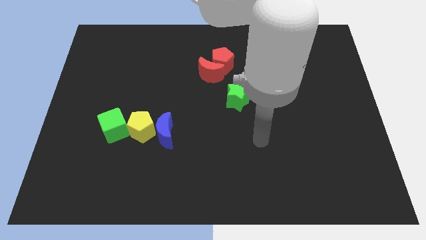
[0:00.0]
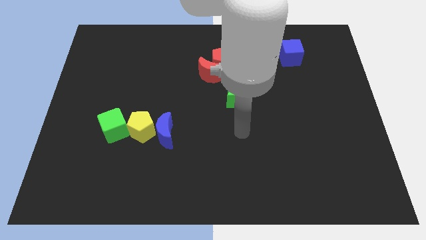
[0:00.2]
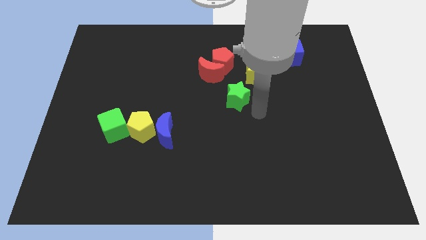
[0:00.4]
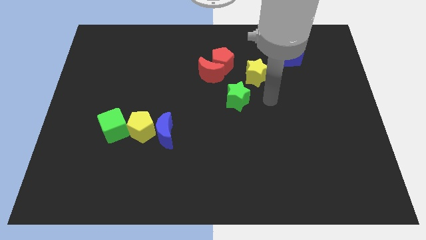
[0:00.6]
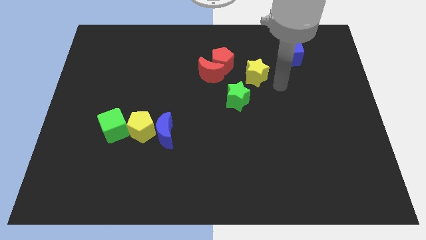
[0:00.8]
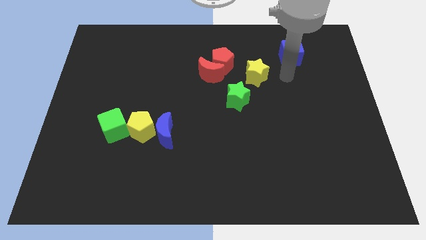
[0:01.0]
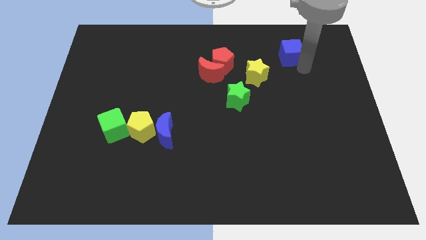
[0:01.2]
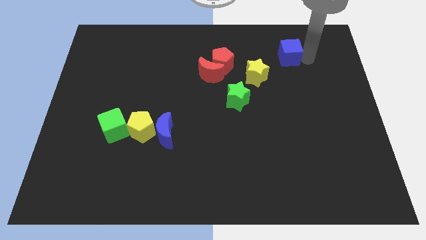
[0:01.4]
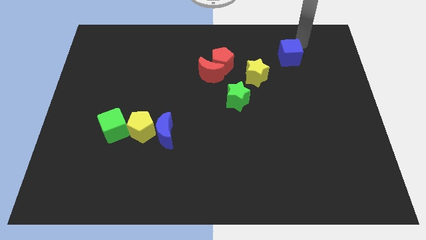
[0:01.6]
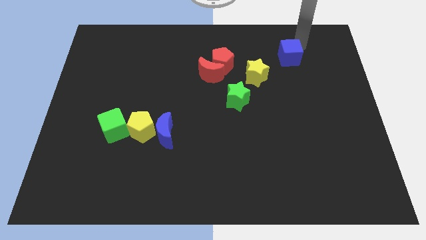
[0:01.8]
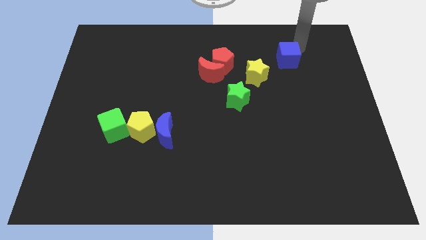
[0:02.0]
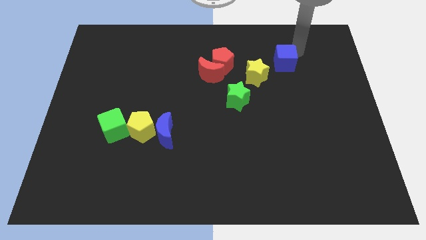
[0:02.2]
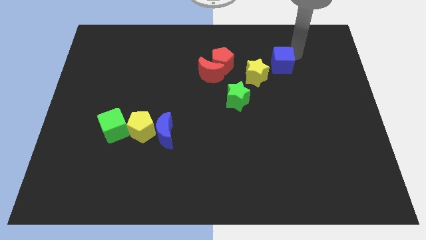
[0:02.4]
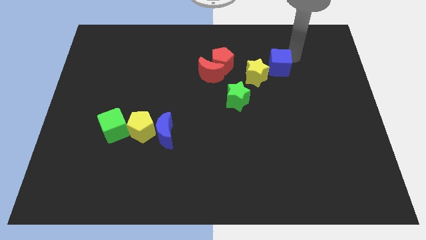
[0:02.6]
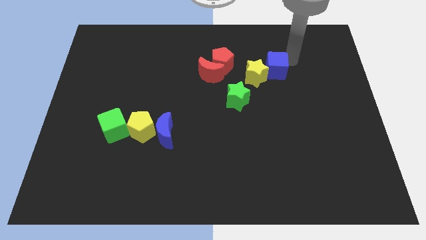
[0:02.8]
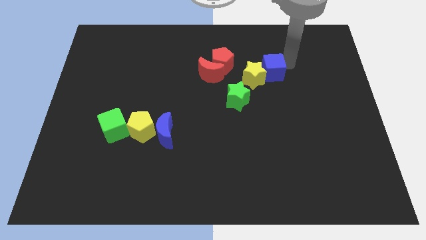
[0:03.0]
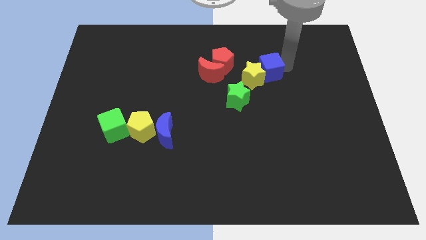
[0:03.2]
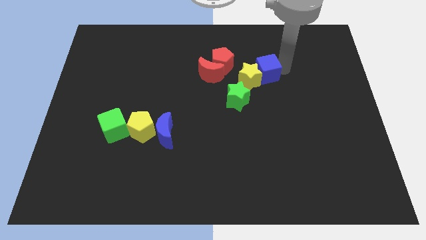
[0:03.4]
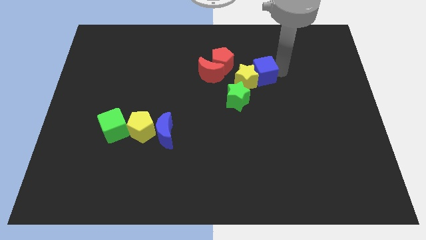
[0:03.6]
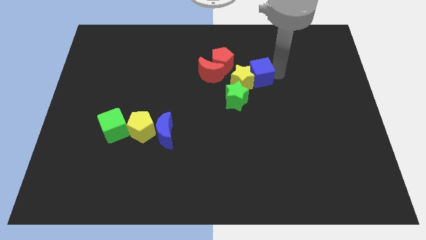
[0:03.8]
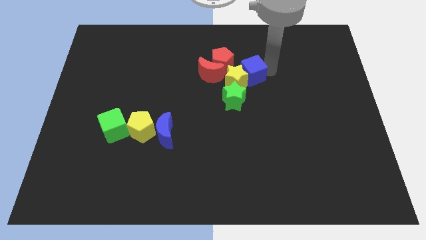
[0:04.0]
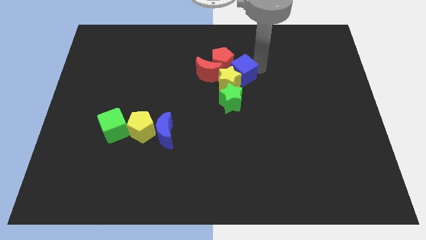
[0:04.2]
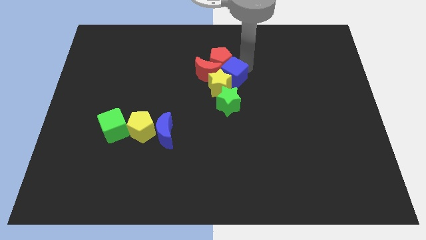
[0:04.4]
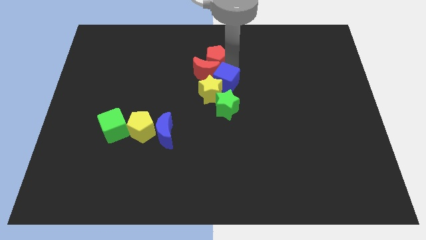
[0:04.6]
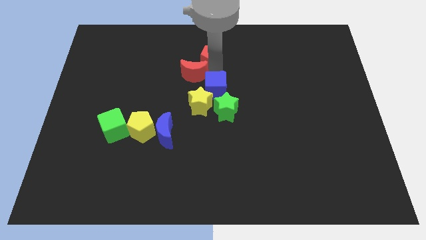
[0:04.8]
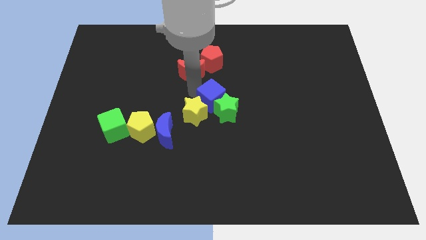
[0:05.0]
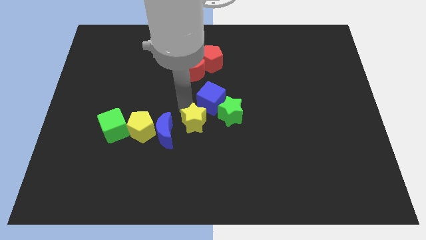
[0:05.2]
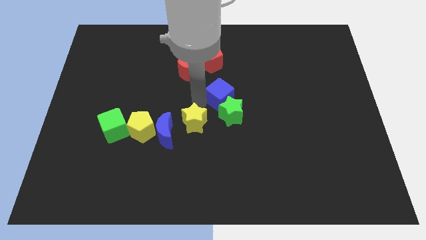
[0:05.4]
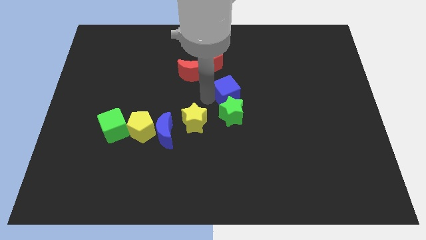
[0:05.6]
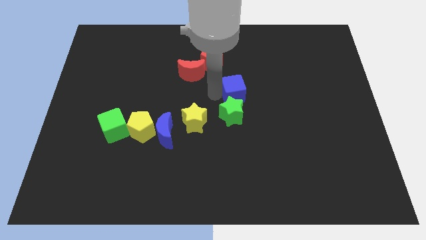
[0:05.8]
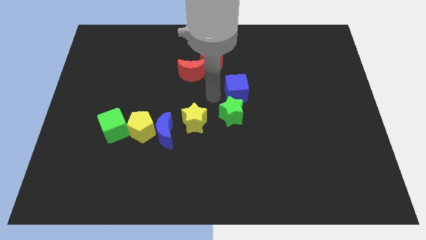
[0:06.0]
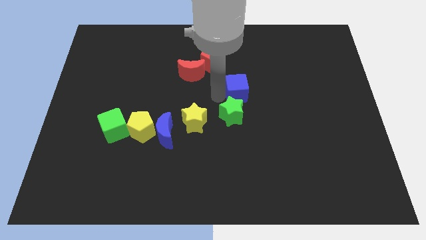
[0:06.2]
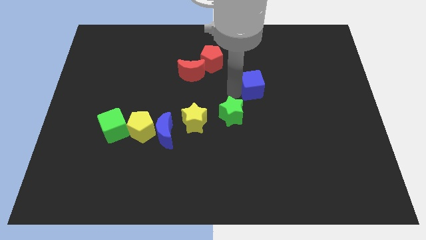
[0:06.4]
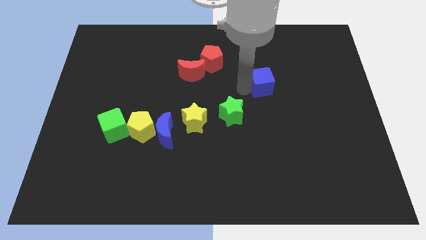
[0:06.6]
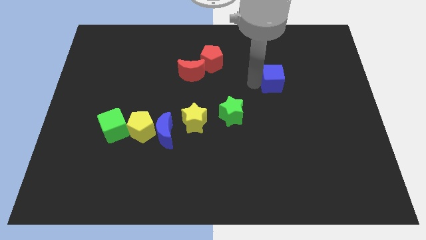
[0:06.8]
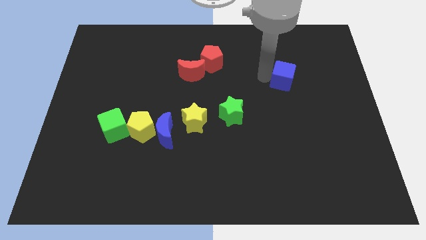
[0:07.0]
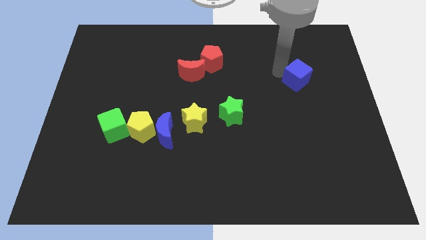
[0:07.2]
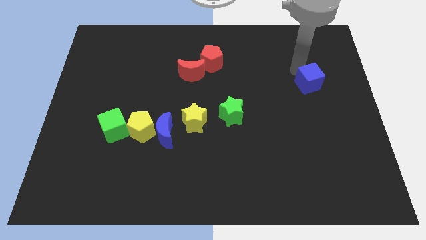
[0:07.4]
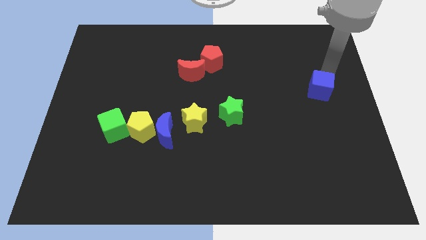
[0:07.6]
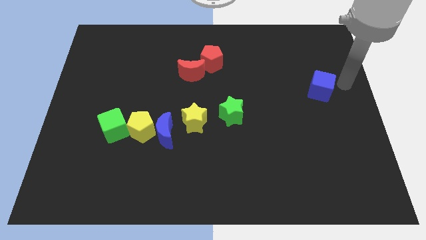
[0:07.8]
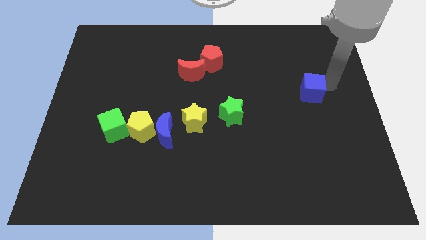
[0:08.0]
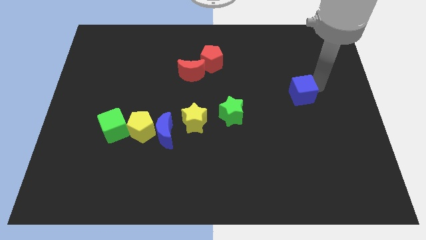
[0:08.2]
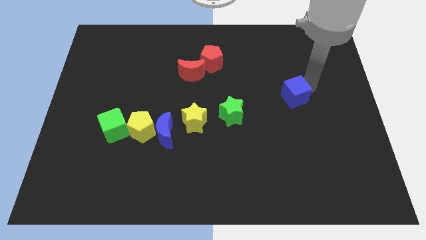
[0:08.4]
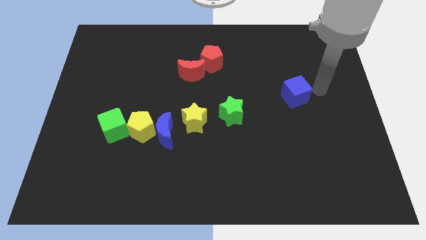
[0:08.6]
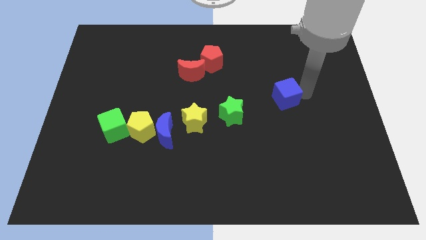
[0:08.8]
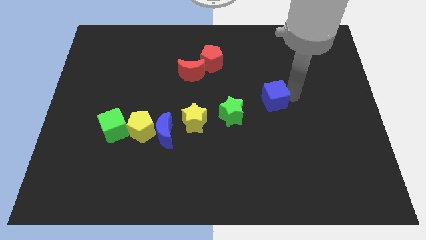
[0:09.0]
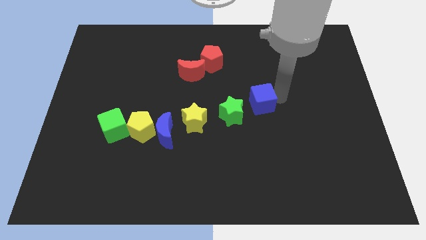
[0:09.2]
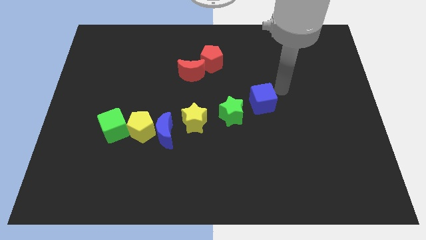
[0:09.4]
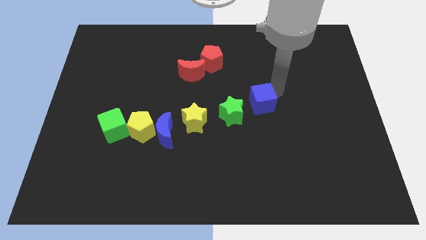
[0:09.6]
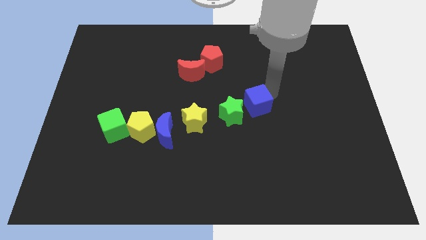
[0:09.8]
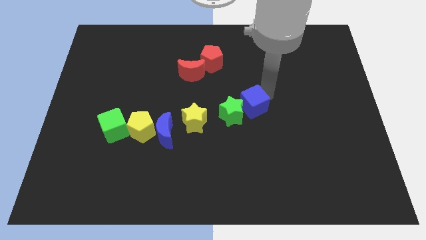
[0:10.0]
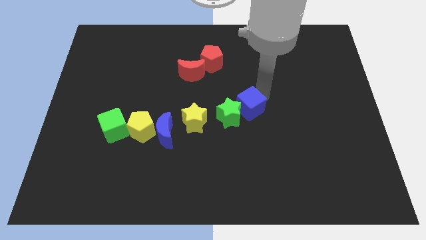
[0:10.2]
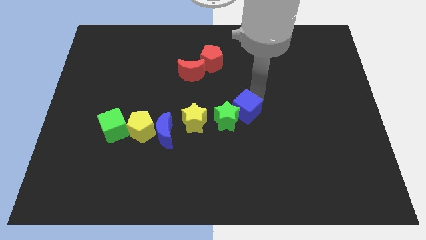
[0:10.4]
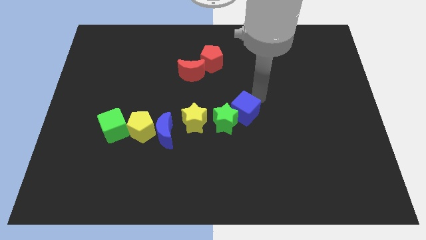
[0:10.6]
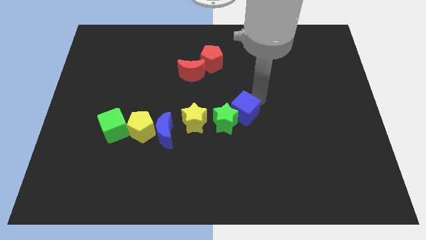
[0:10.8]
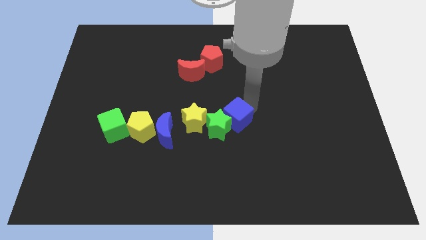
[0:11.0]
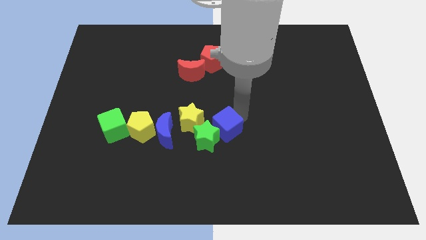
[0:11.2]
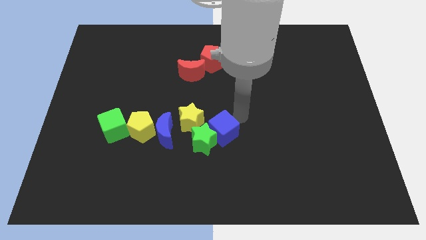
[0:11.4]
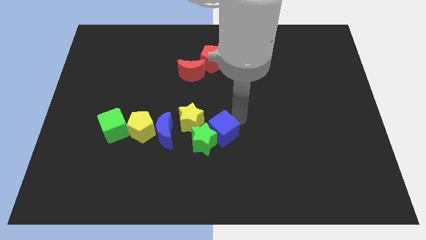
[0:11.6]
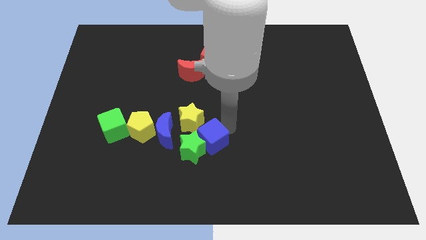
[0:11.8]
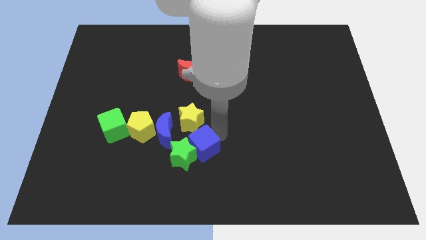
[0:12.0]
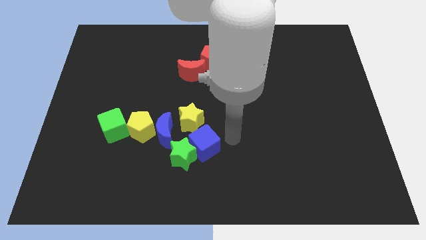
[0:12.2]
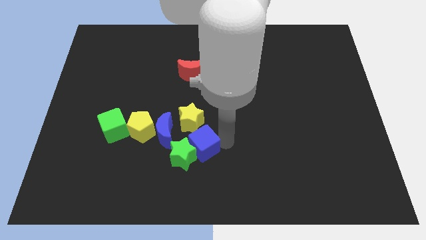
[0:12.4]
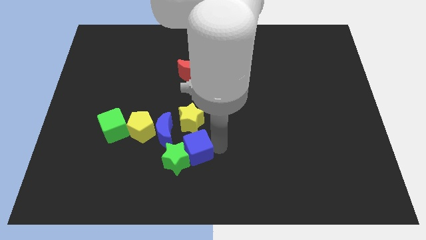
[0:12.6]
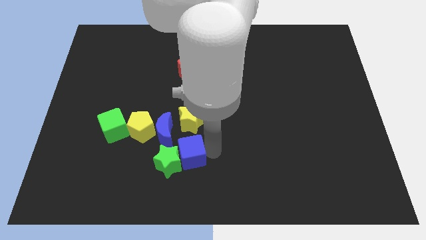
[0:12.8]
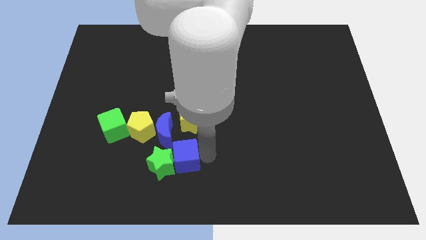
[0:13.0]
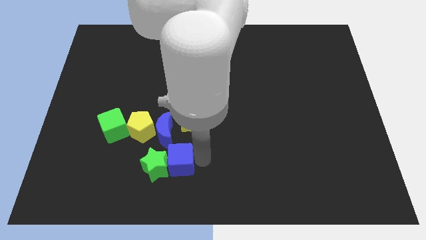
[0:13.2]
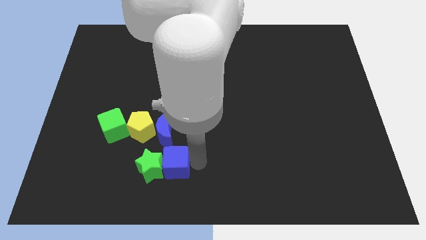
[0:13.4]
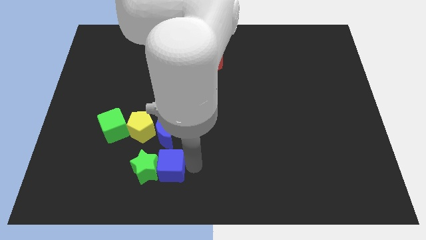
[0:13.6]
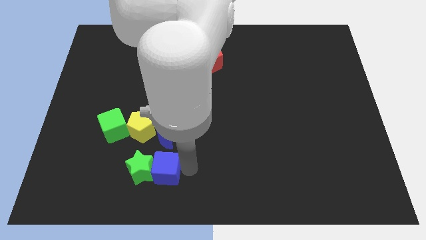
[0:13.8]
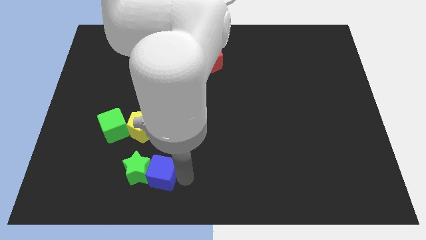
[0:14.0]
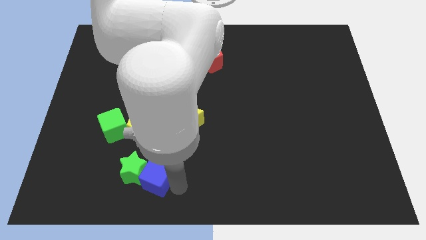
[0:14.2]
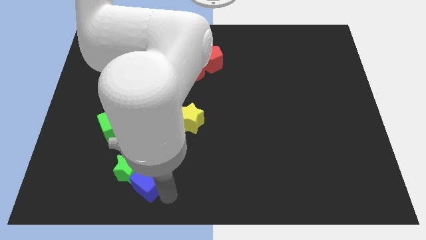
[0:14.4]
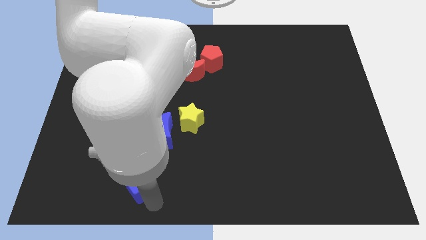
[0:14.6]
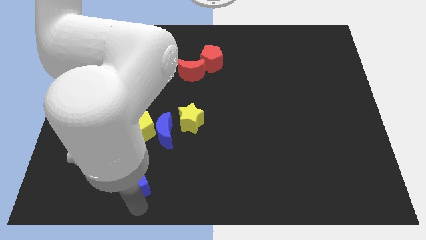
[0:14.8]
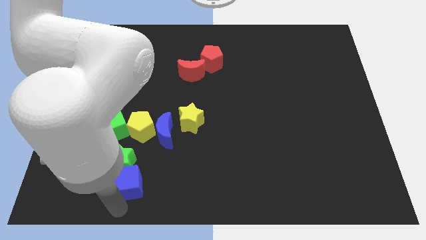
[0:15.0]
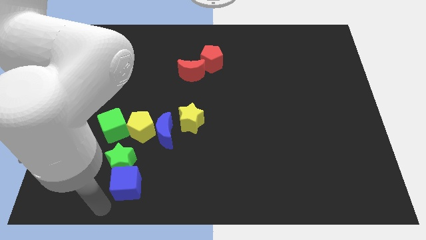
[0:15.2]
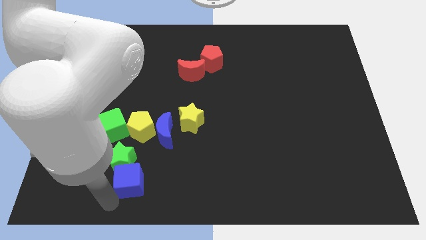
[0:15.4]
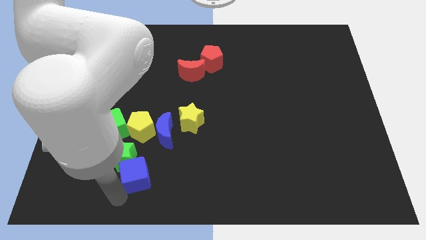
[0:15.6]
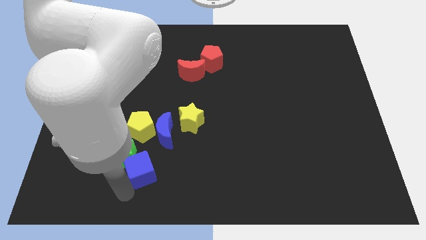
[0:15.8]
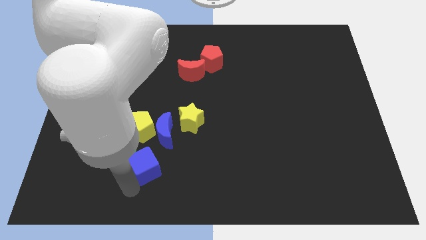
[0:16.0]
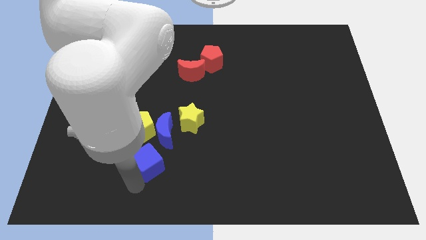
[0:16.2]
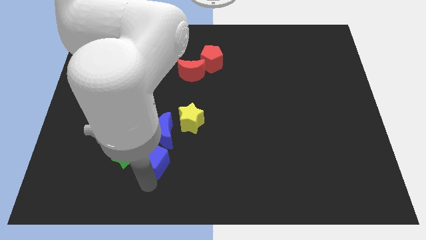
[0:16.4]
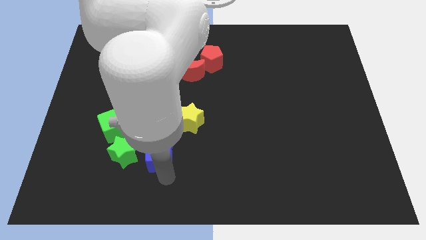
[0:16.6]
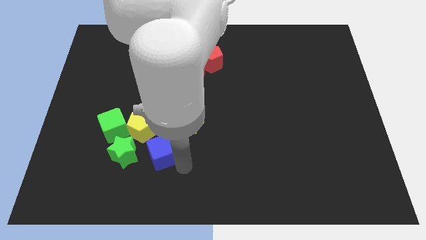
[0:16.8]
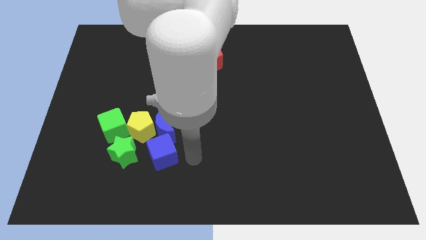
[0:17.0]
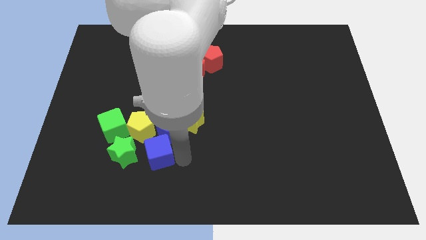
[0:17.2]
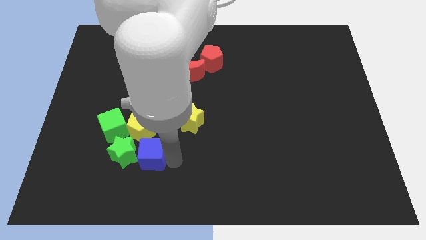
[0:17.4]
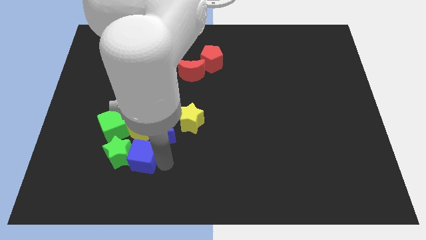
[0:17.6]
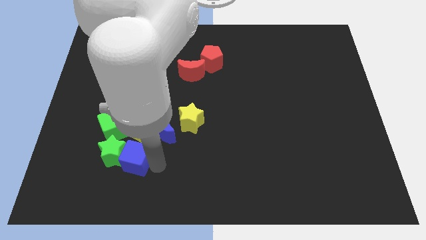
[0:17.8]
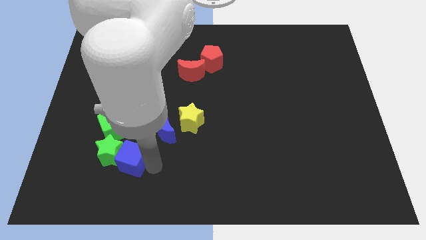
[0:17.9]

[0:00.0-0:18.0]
put the blue cube to the bottom left side of the yellow pentagon
